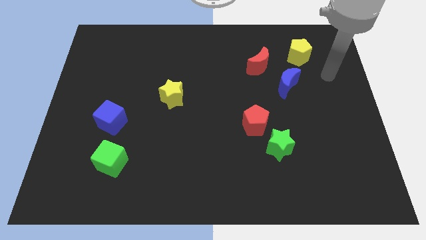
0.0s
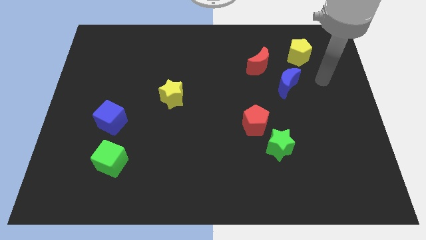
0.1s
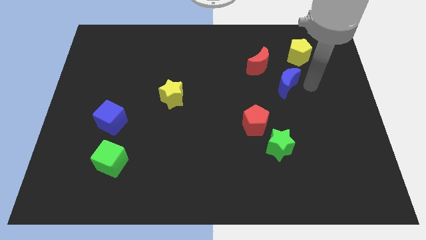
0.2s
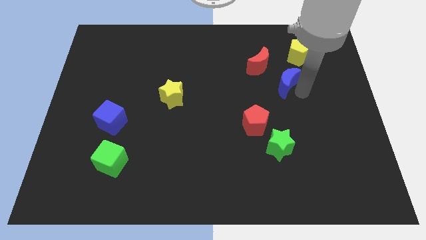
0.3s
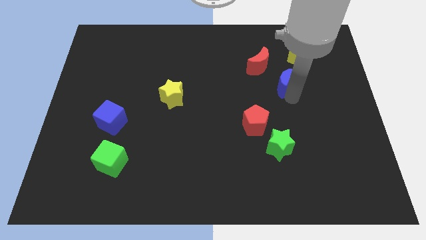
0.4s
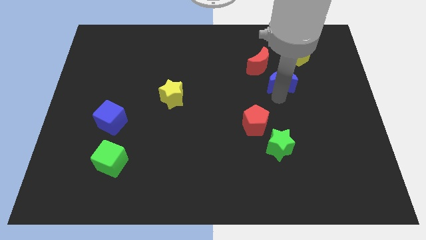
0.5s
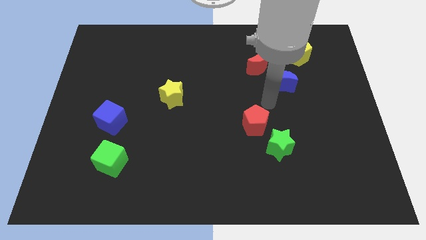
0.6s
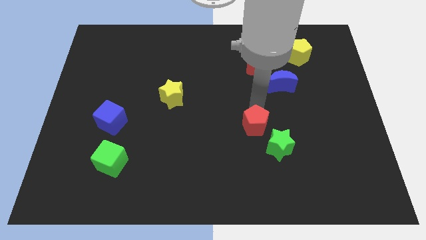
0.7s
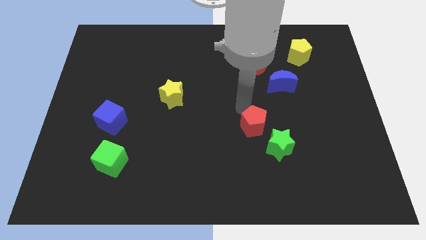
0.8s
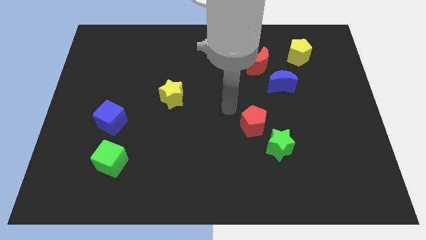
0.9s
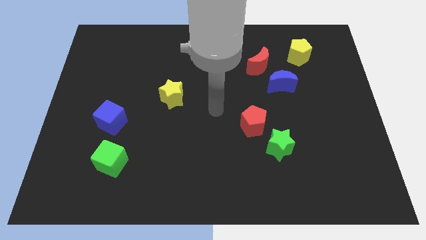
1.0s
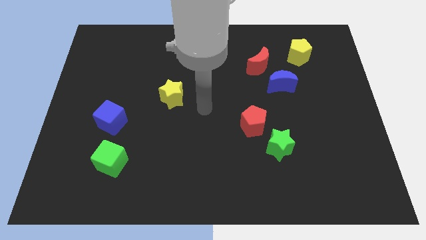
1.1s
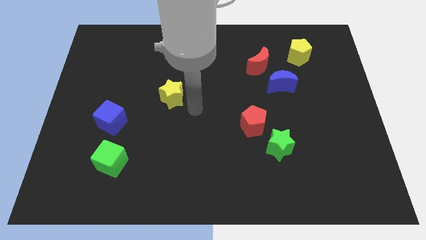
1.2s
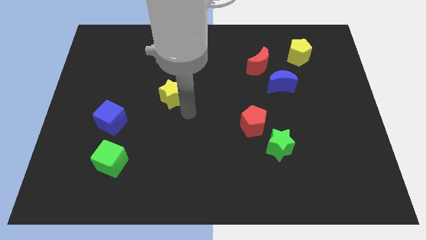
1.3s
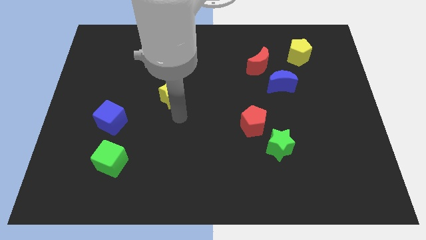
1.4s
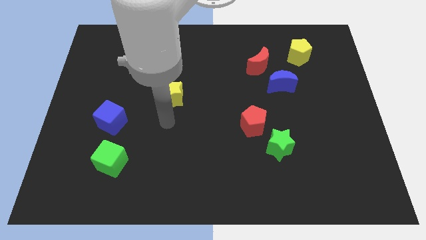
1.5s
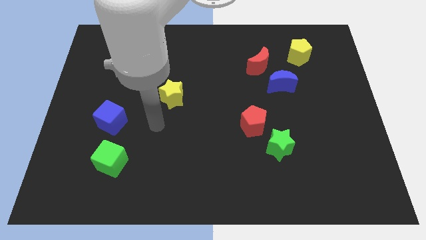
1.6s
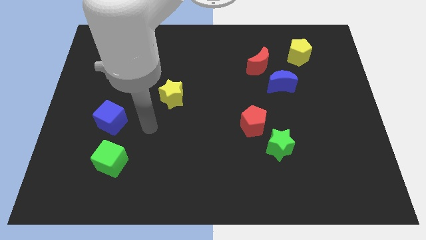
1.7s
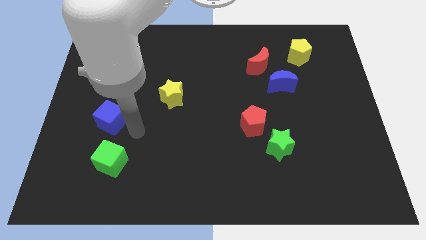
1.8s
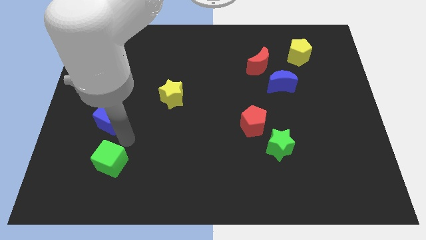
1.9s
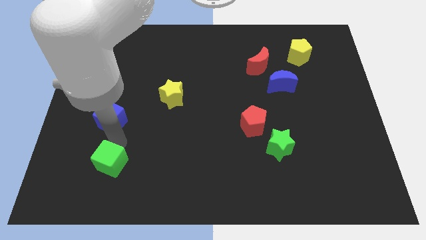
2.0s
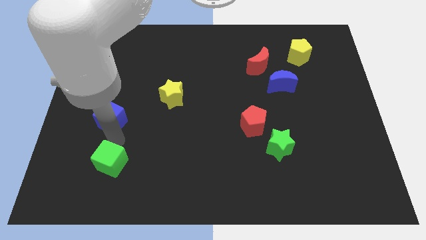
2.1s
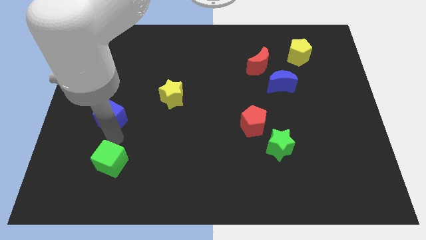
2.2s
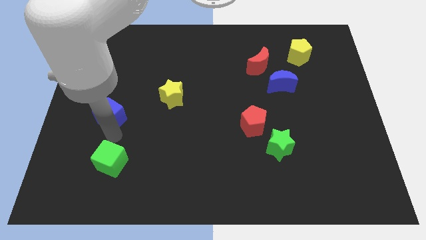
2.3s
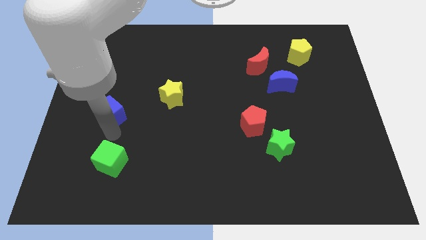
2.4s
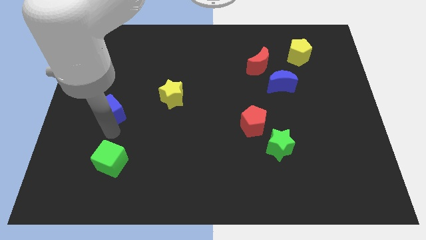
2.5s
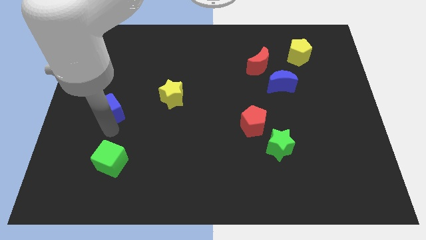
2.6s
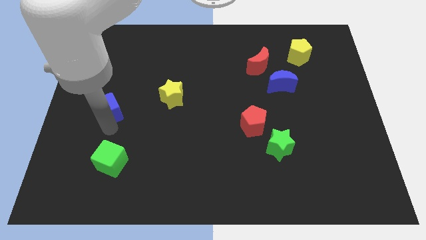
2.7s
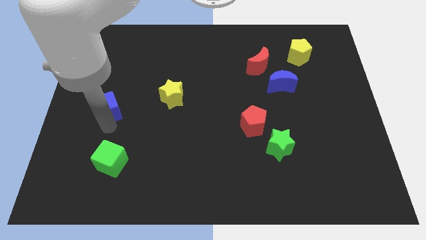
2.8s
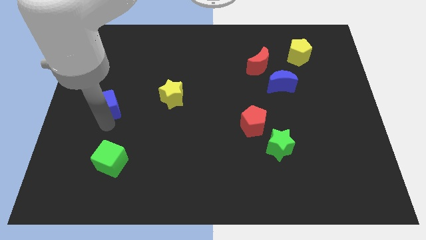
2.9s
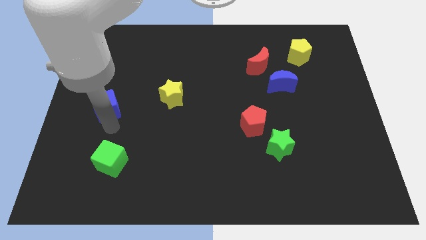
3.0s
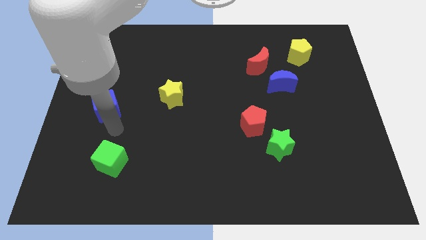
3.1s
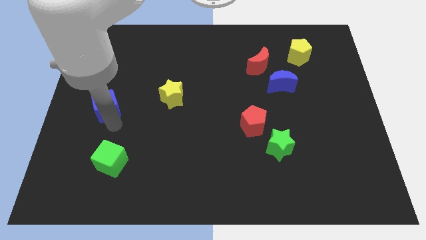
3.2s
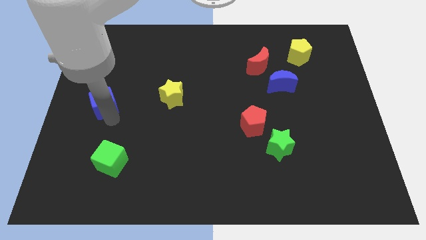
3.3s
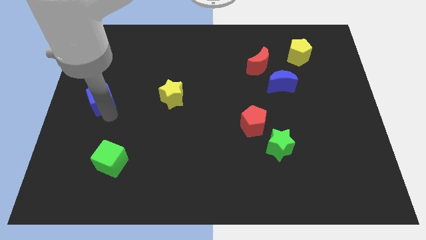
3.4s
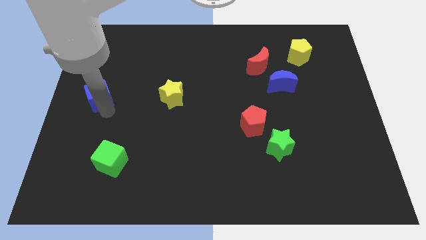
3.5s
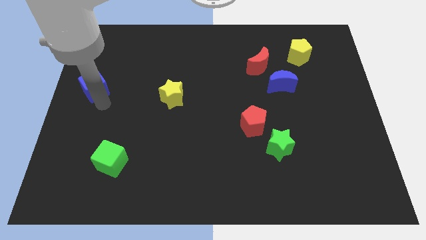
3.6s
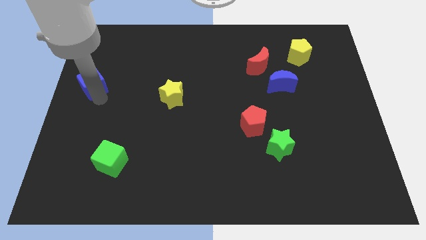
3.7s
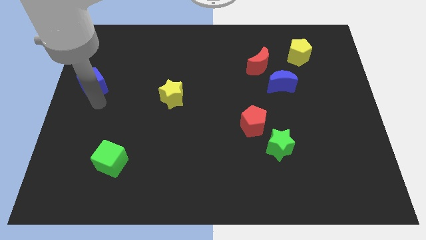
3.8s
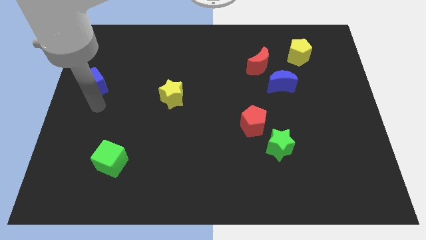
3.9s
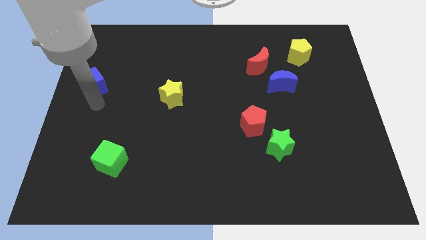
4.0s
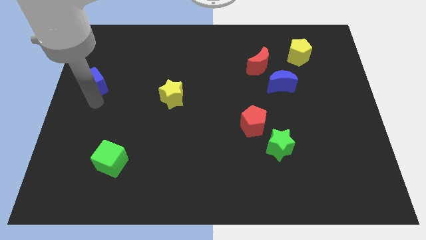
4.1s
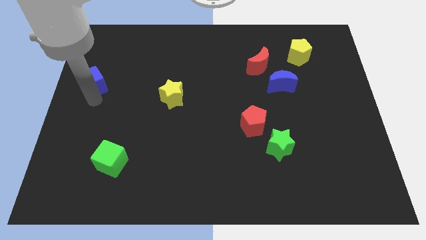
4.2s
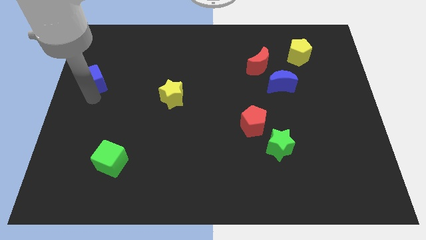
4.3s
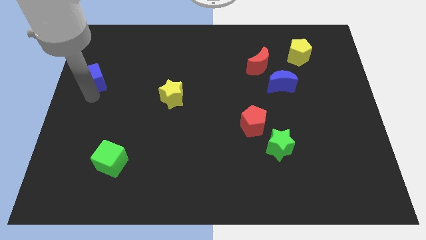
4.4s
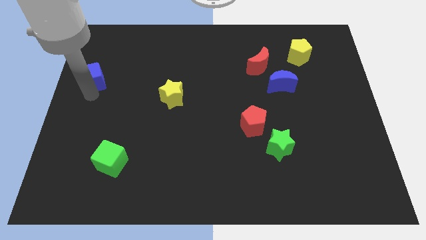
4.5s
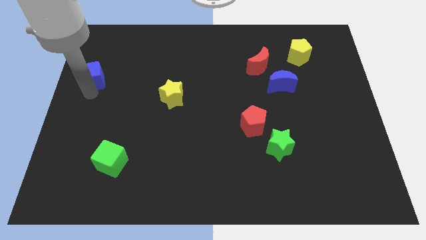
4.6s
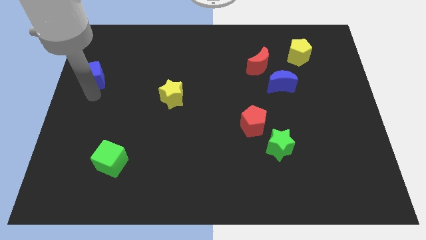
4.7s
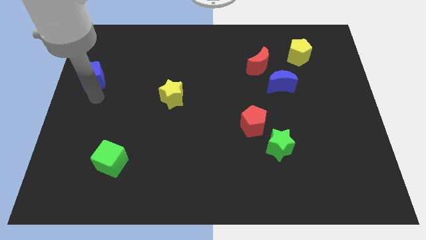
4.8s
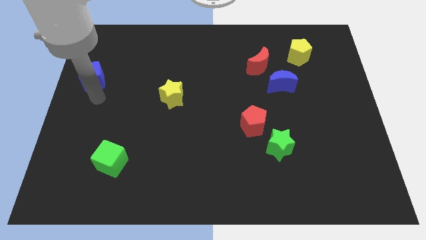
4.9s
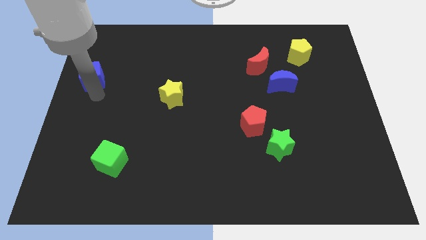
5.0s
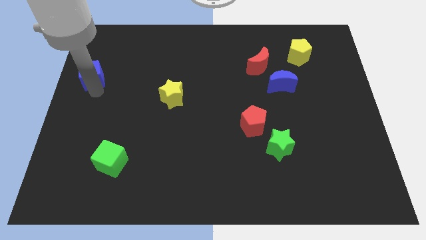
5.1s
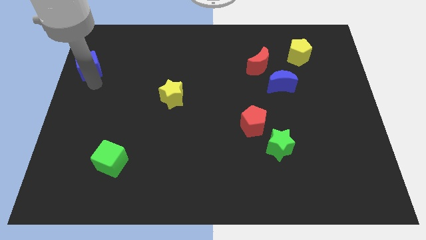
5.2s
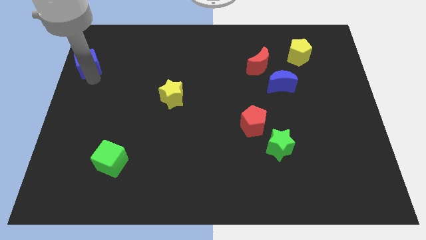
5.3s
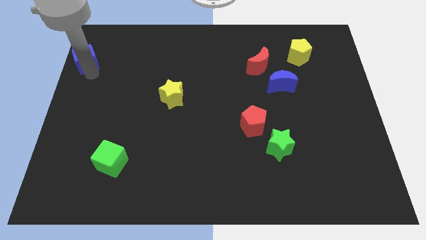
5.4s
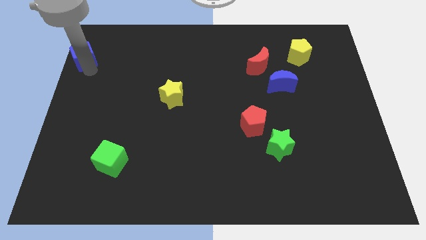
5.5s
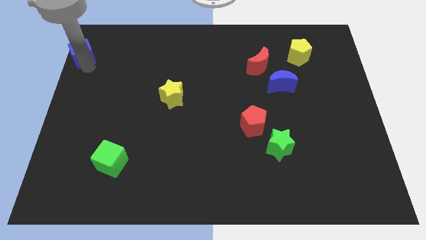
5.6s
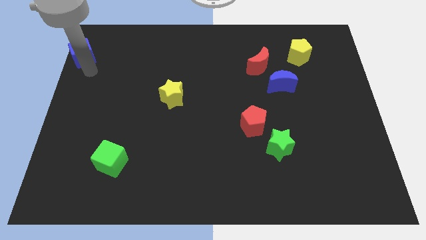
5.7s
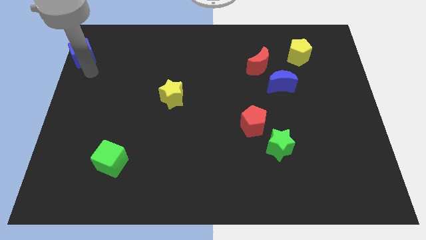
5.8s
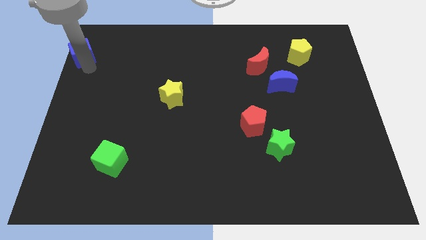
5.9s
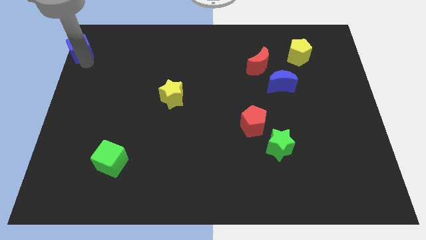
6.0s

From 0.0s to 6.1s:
push the blue cube to the top left corner

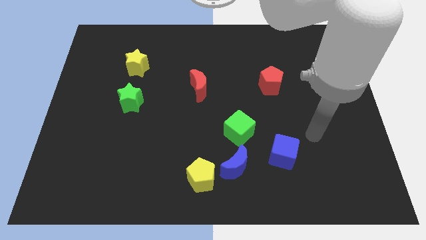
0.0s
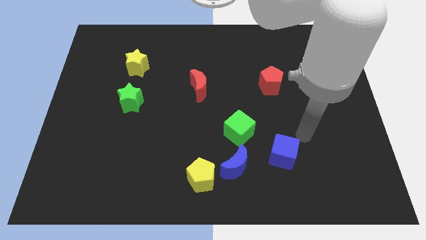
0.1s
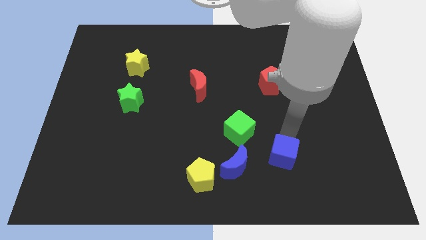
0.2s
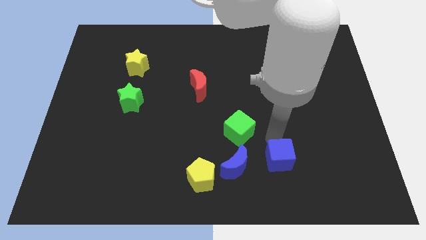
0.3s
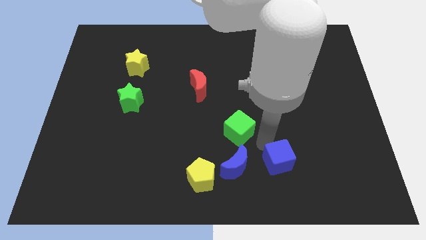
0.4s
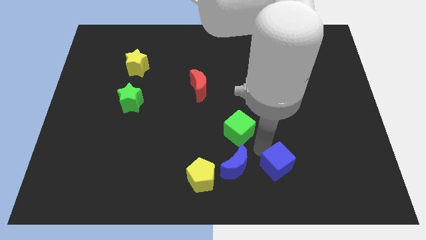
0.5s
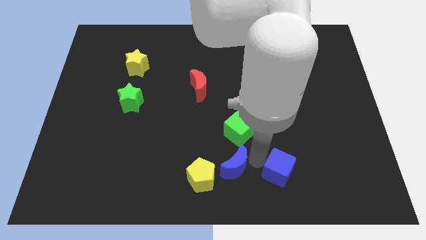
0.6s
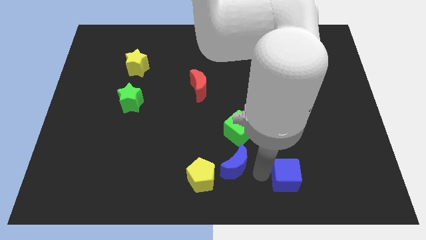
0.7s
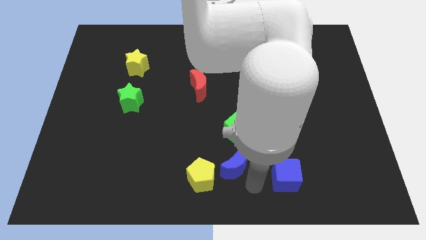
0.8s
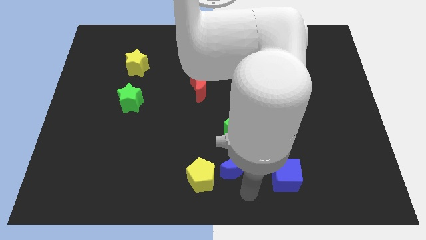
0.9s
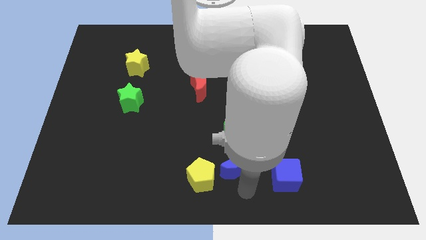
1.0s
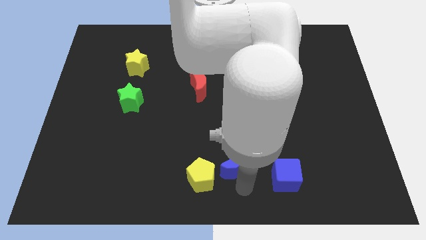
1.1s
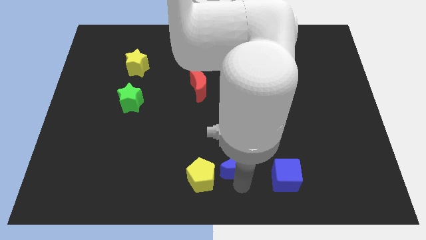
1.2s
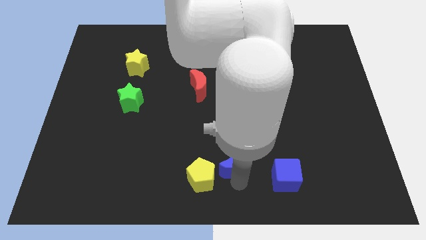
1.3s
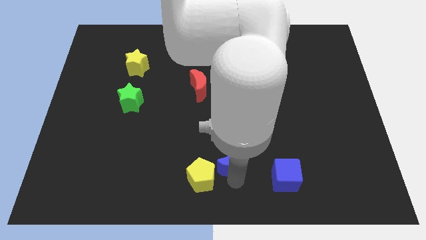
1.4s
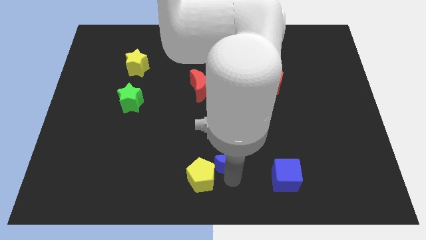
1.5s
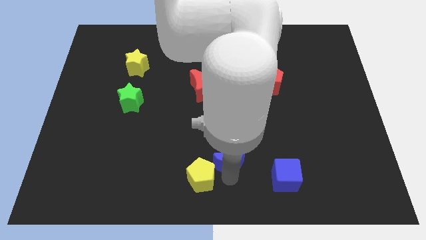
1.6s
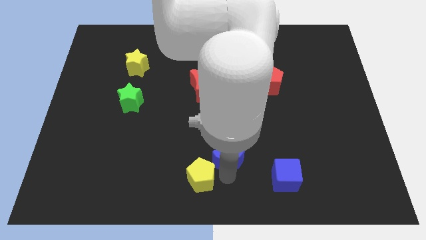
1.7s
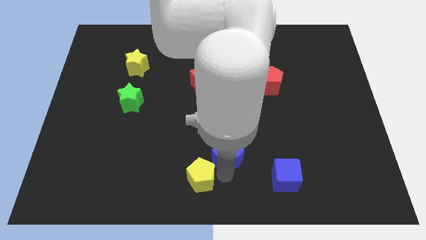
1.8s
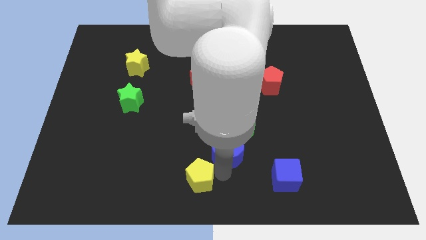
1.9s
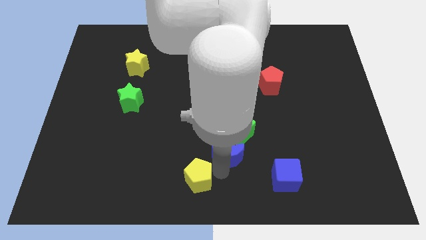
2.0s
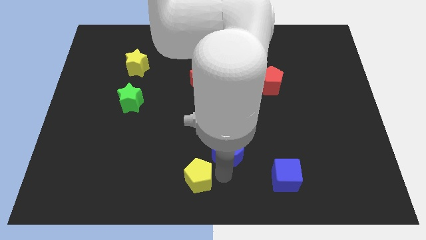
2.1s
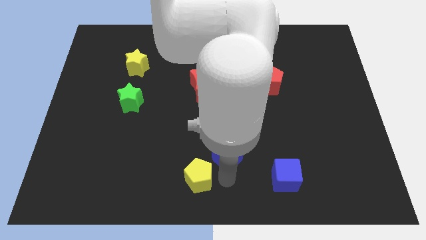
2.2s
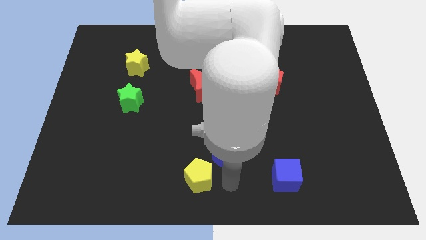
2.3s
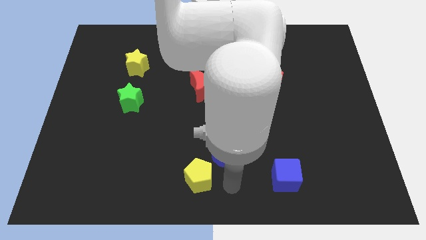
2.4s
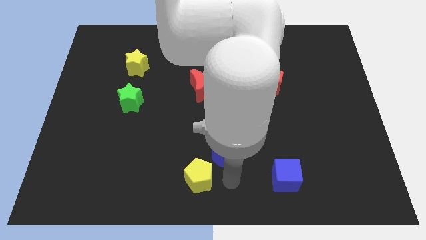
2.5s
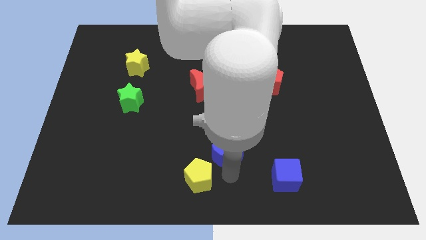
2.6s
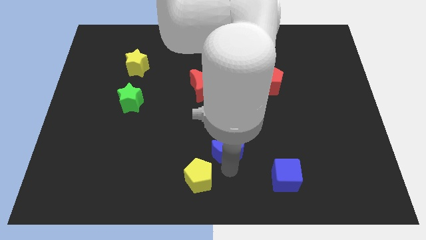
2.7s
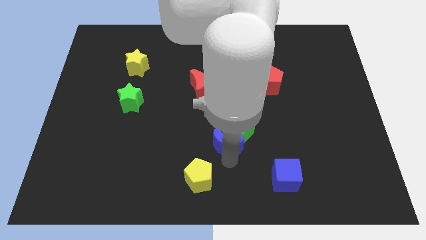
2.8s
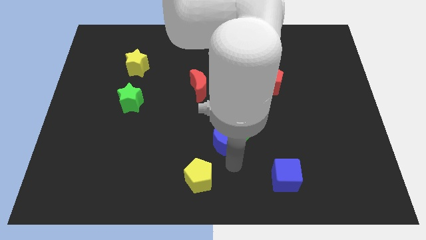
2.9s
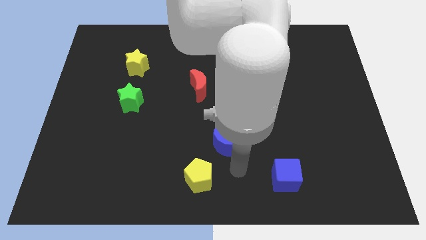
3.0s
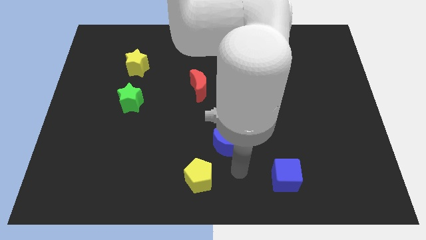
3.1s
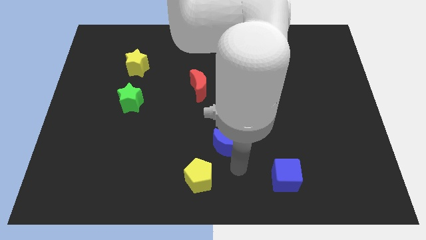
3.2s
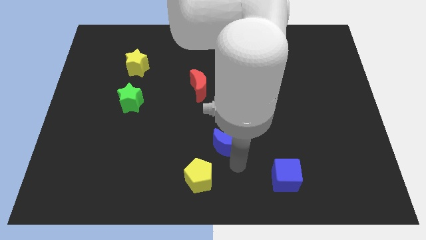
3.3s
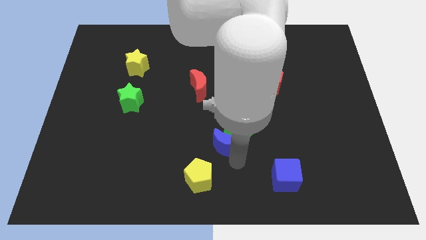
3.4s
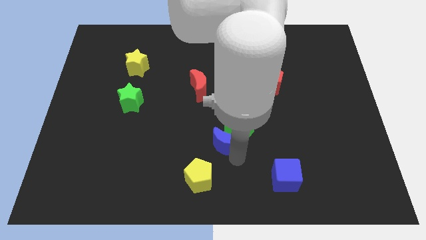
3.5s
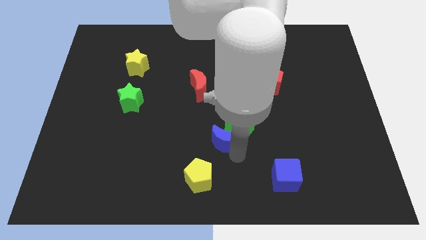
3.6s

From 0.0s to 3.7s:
put the blue moon to the center of the board
